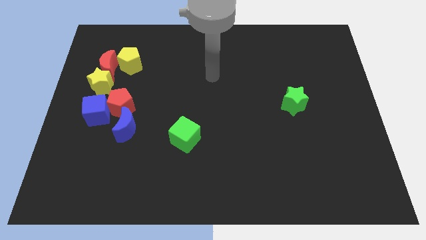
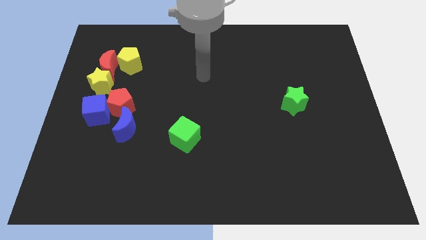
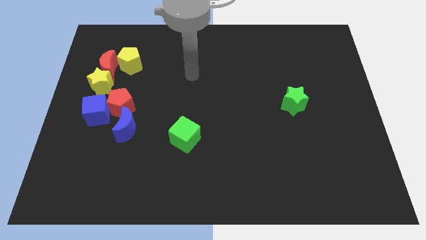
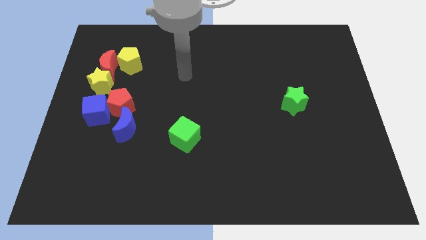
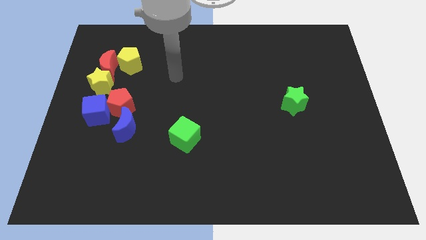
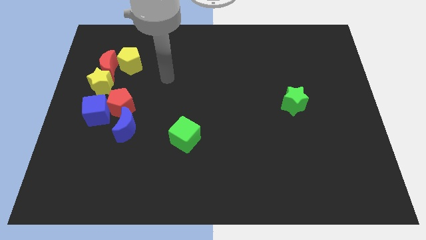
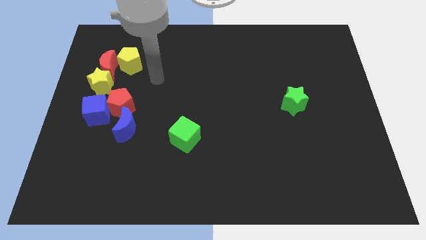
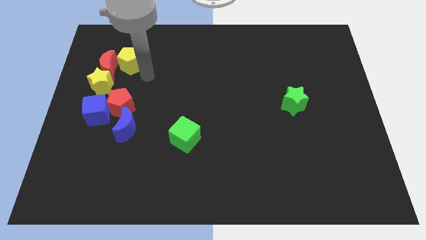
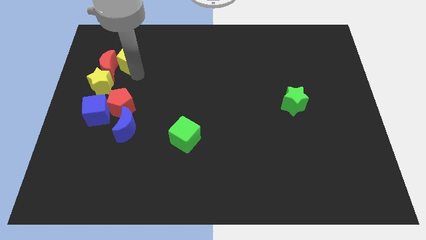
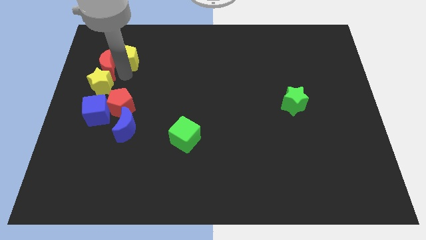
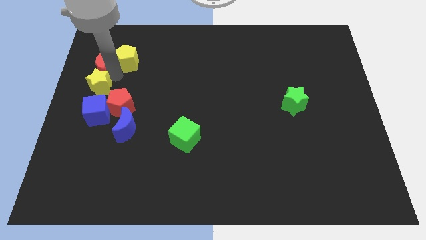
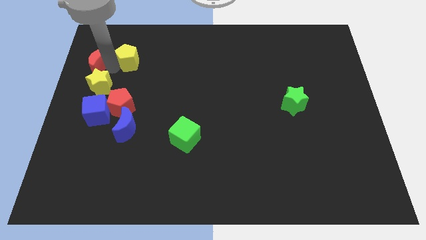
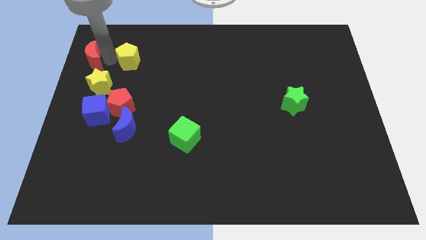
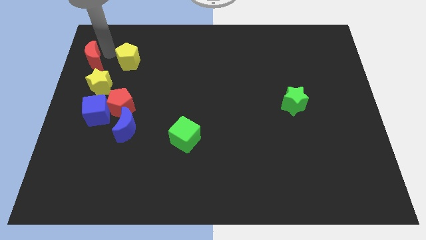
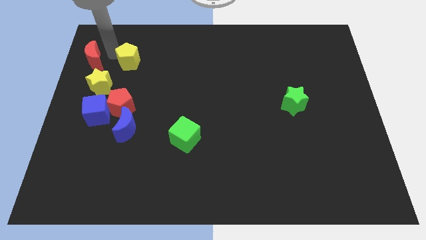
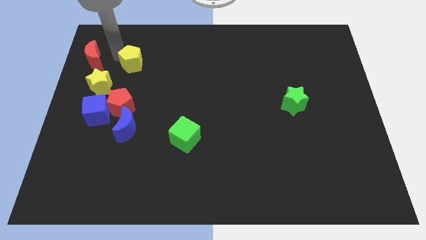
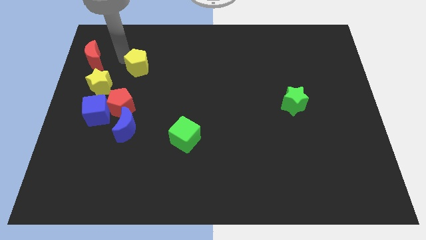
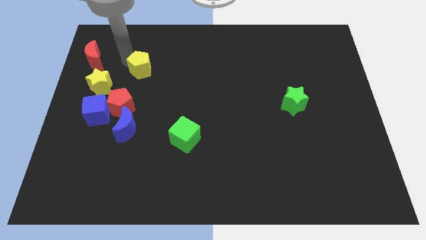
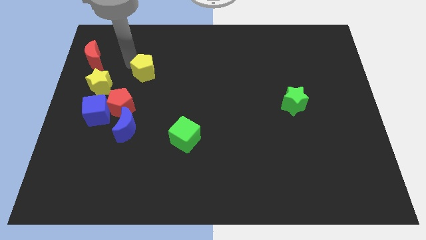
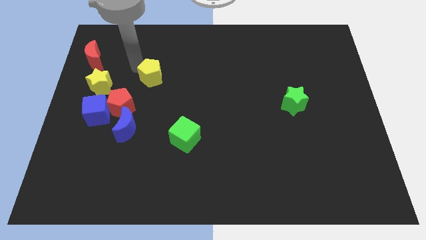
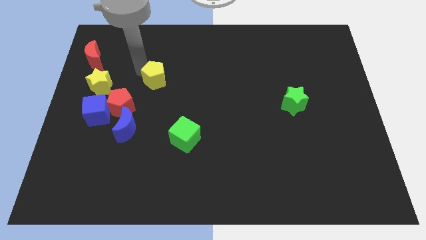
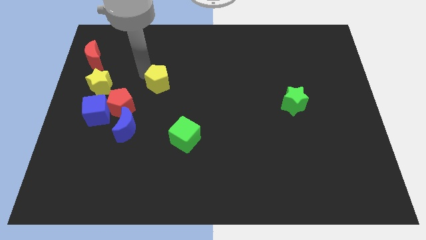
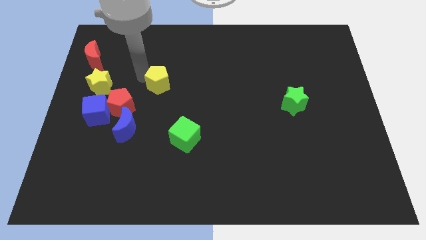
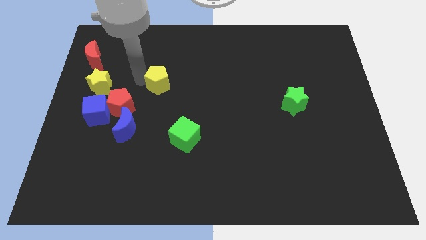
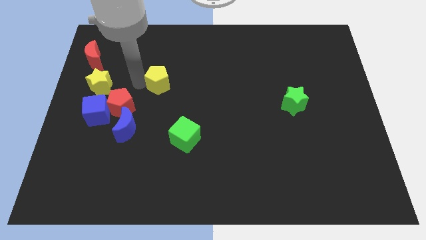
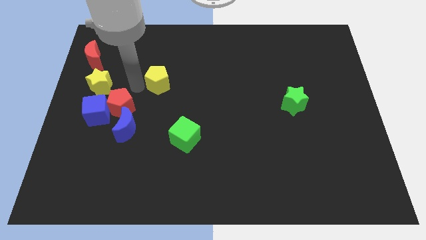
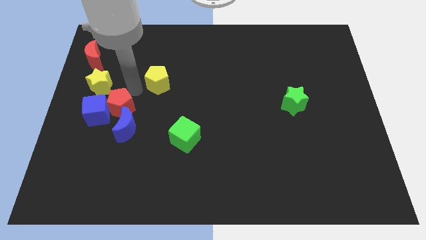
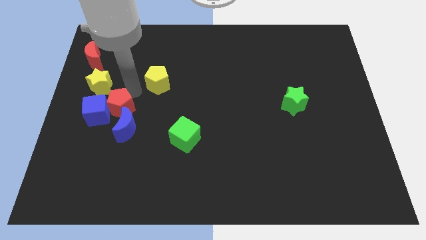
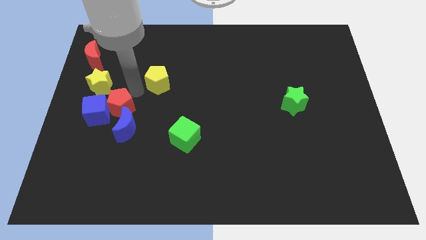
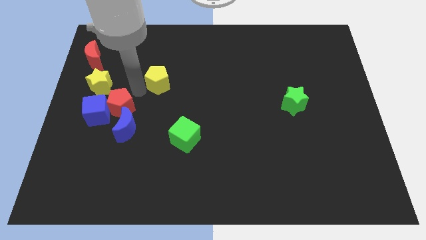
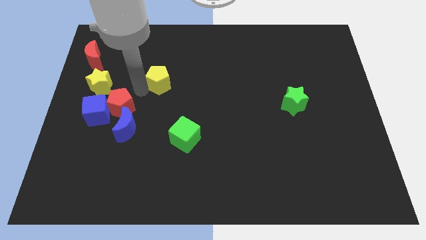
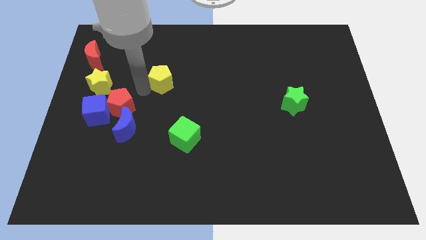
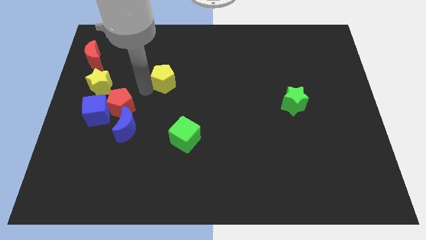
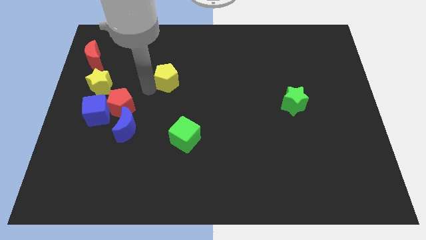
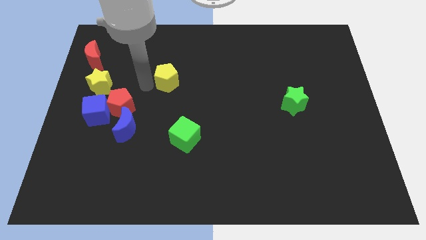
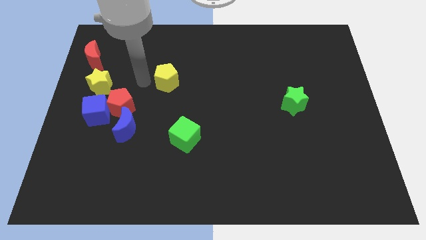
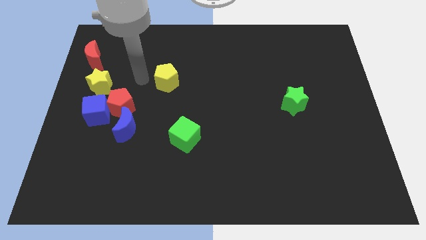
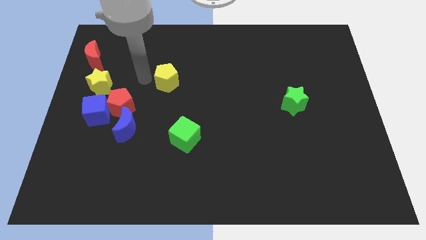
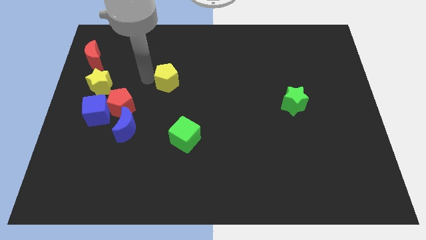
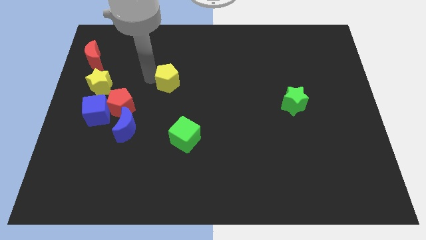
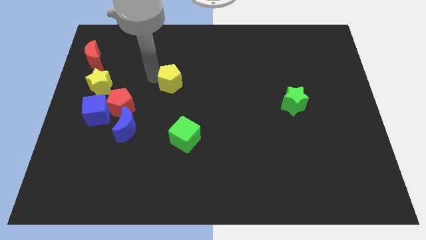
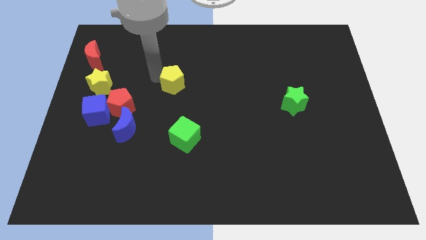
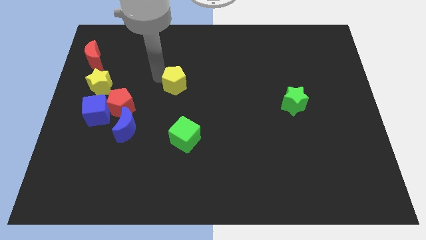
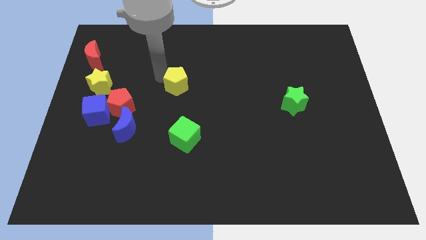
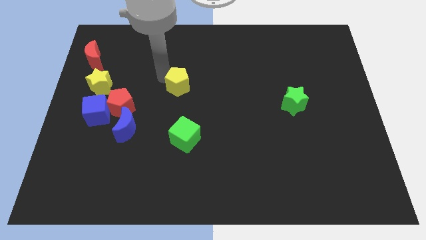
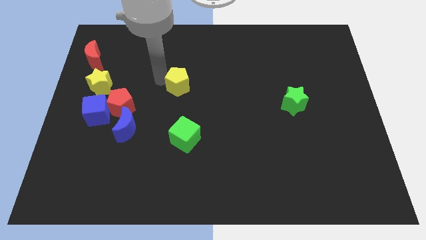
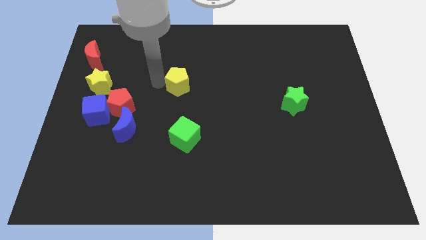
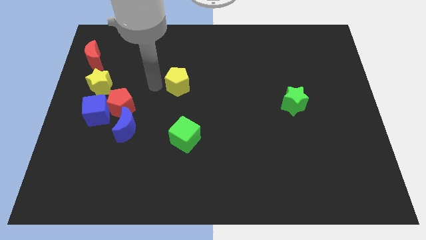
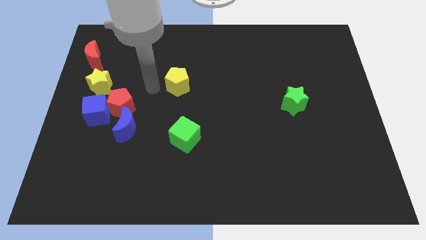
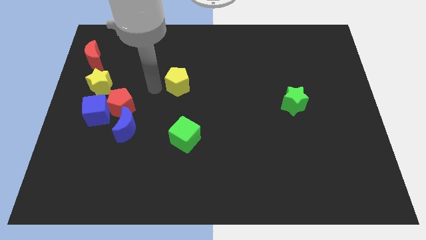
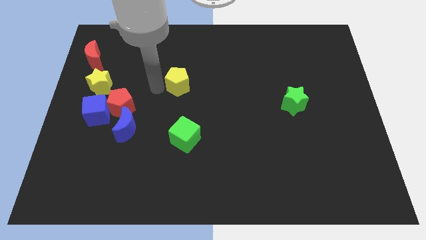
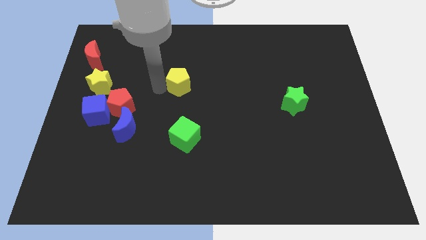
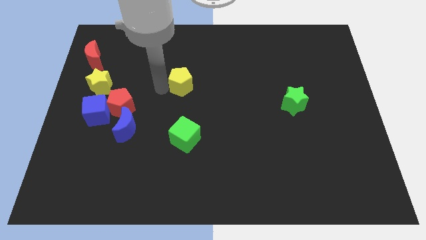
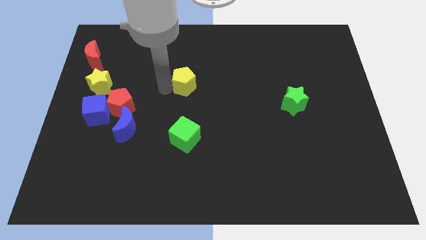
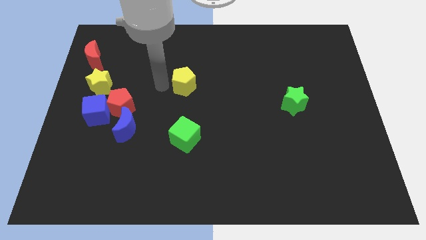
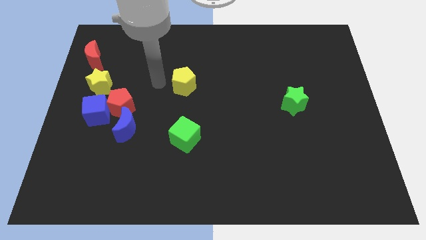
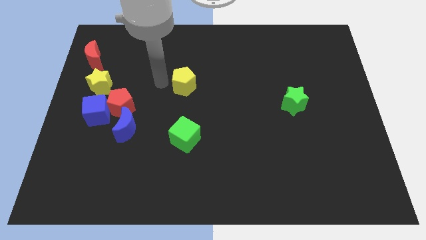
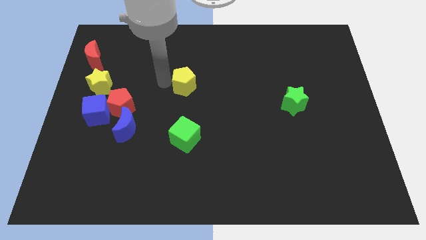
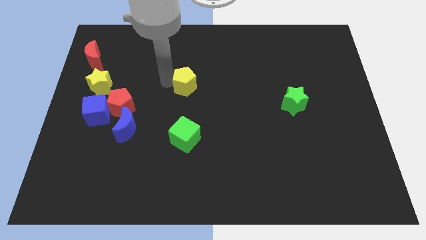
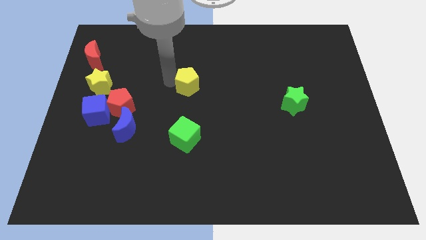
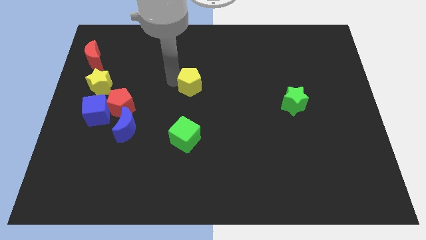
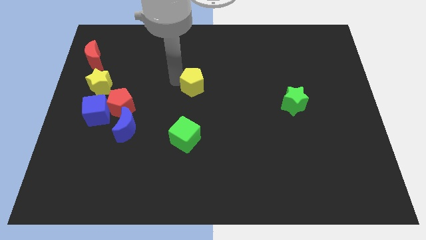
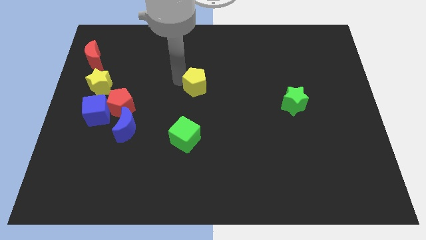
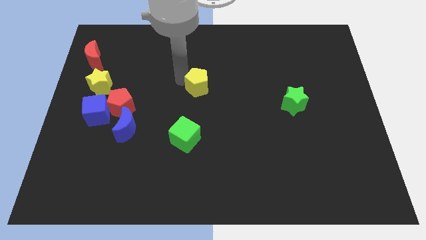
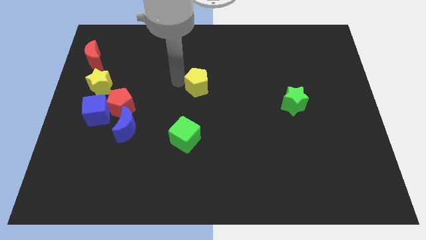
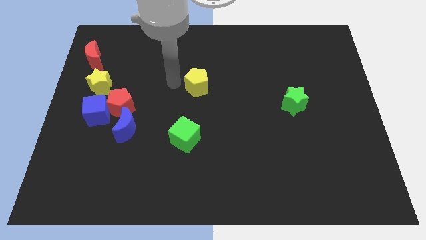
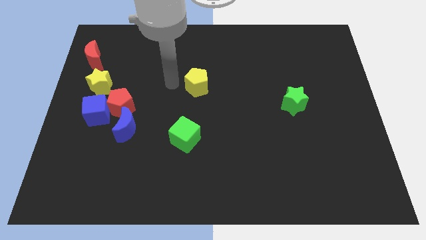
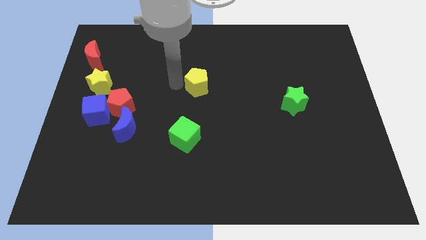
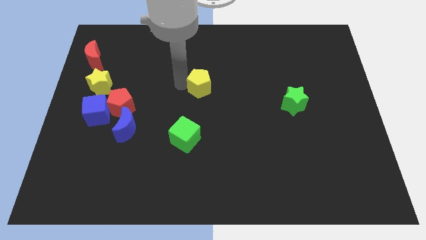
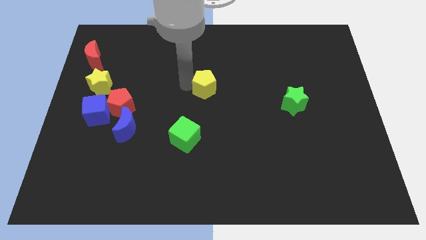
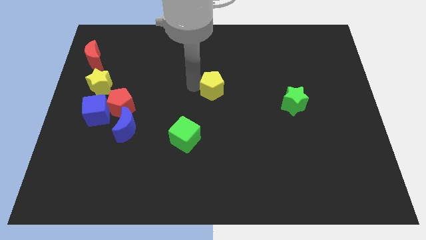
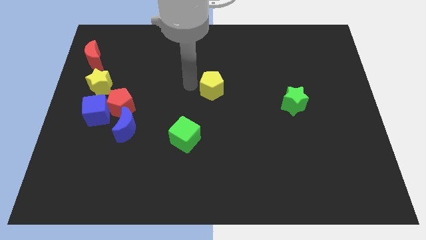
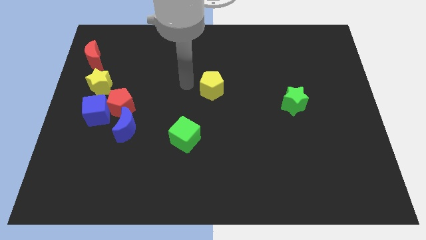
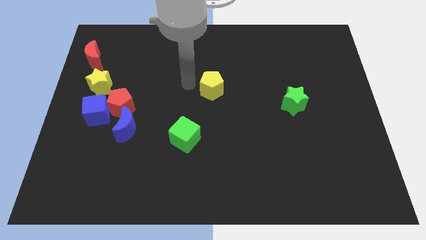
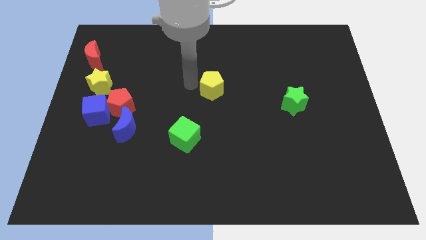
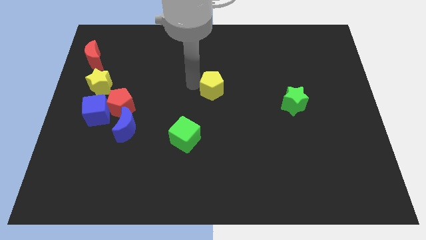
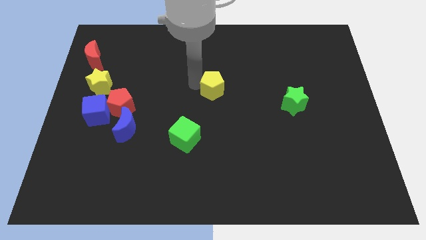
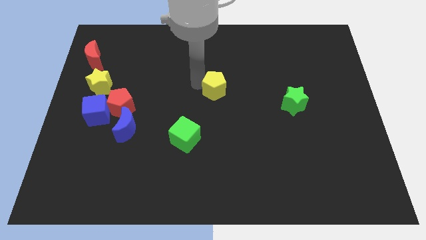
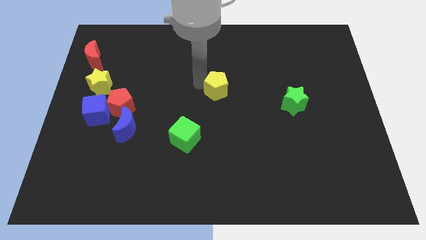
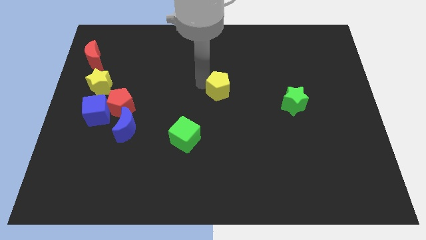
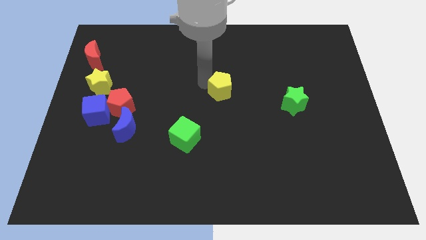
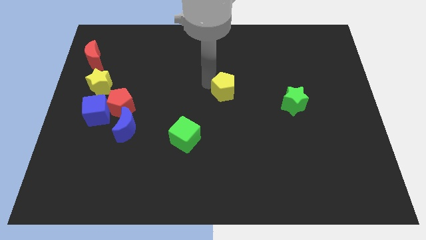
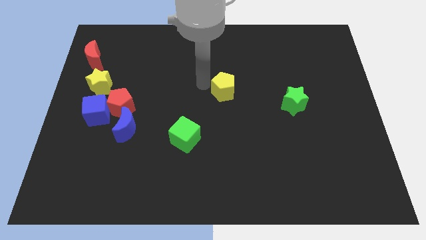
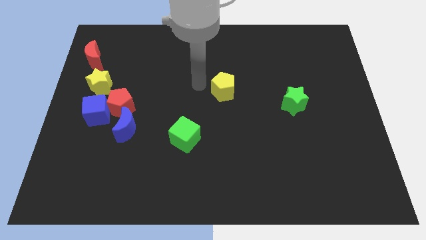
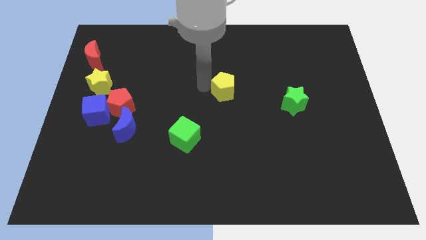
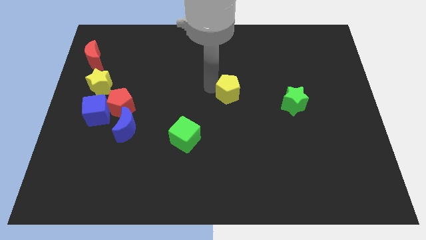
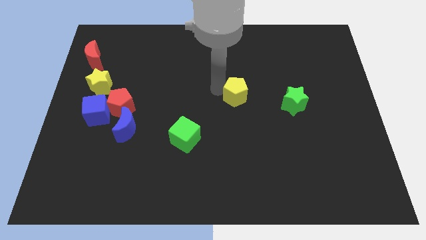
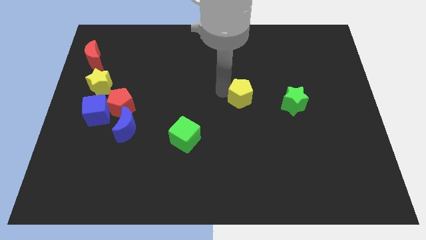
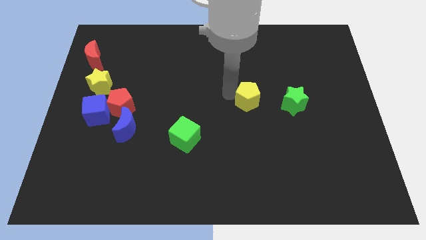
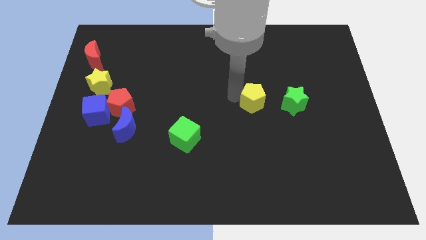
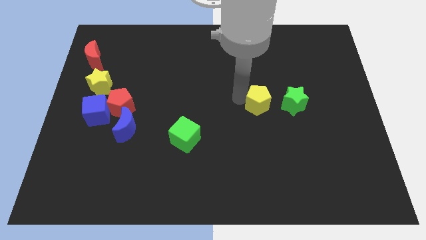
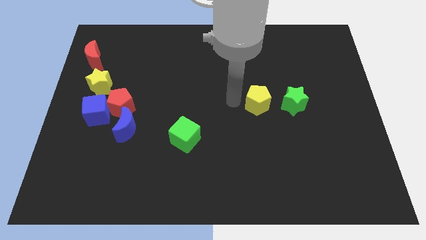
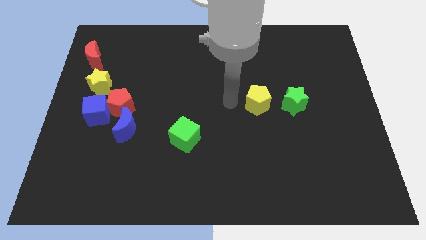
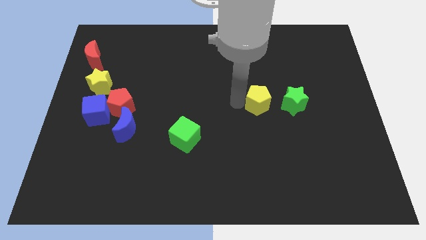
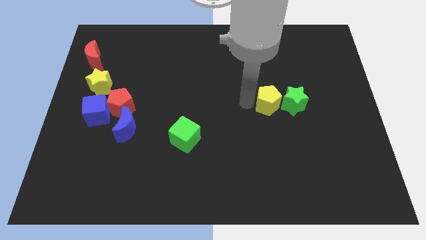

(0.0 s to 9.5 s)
move the yellow pentagon to the green star
